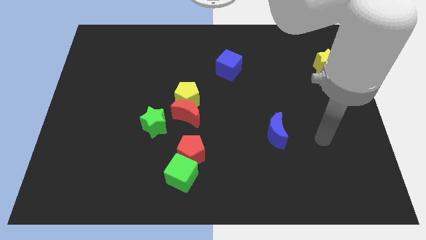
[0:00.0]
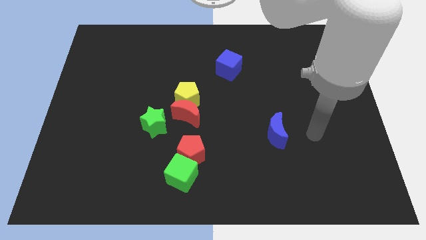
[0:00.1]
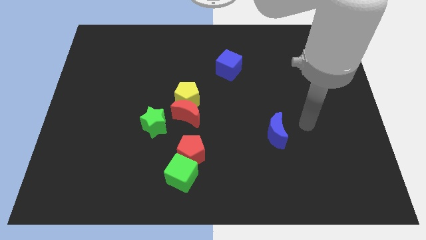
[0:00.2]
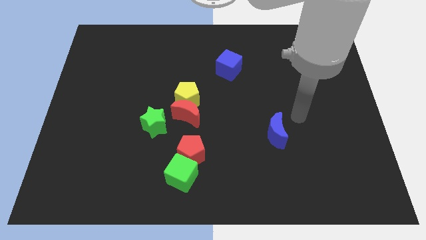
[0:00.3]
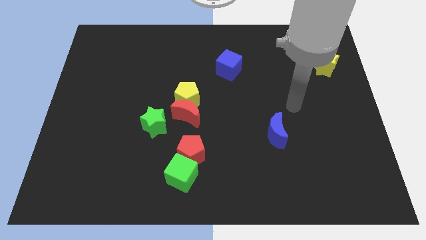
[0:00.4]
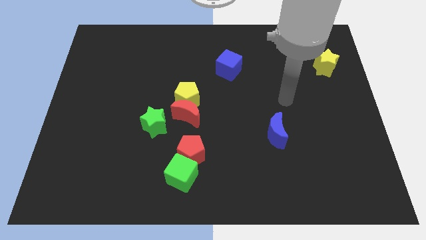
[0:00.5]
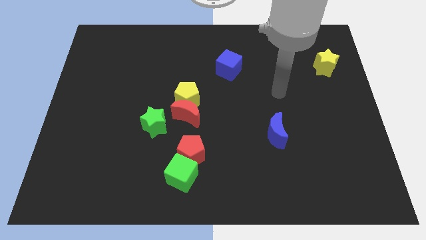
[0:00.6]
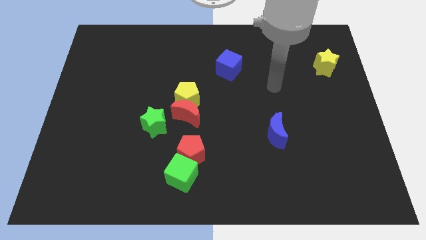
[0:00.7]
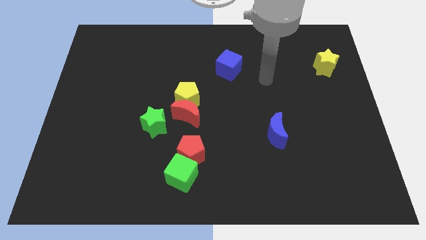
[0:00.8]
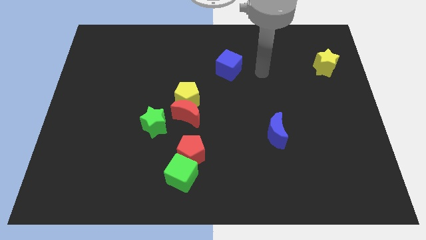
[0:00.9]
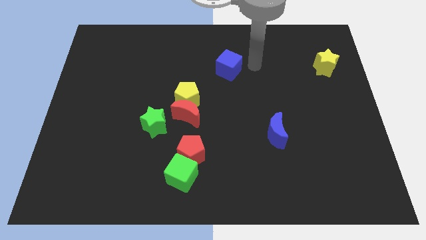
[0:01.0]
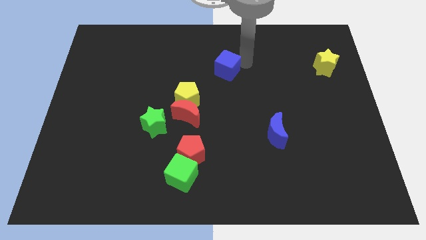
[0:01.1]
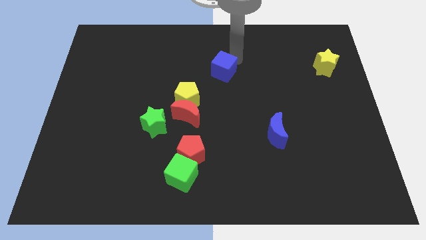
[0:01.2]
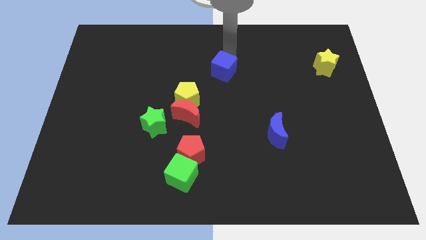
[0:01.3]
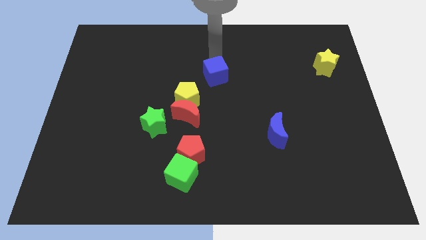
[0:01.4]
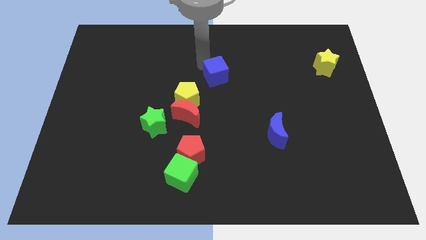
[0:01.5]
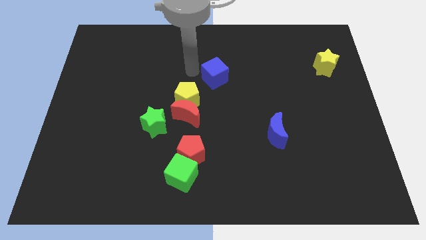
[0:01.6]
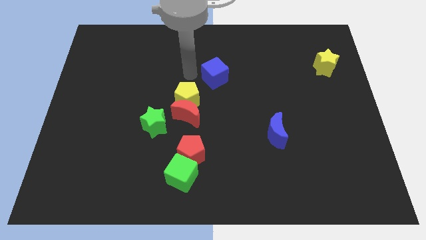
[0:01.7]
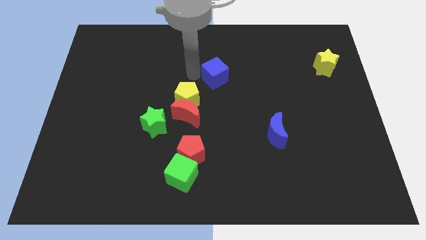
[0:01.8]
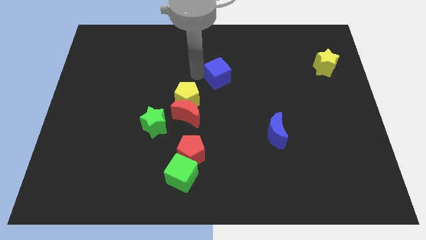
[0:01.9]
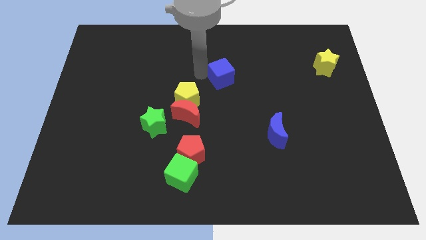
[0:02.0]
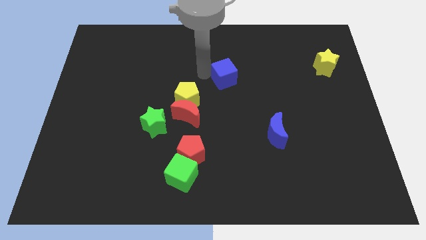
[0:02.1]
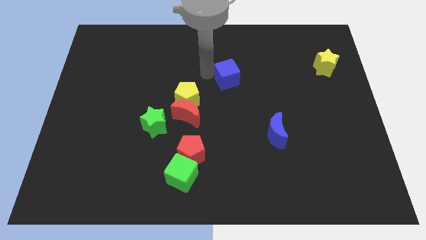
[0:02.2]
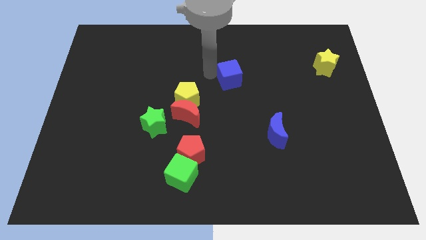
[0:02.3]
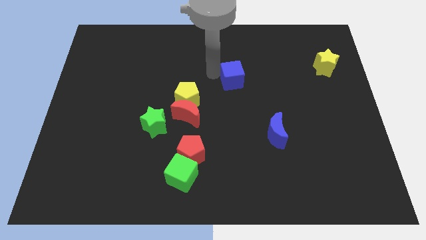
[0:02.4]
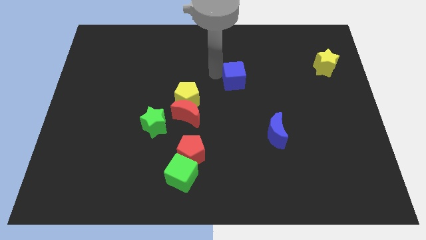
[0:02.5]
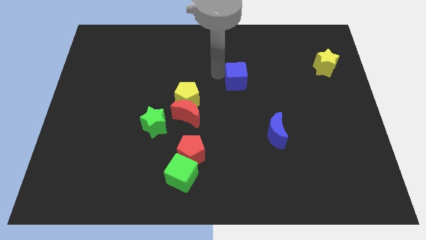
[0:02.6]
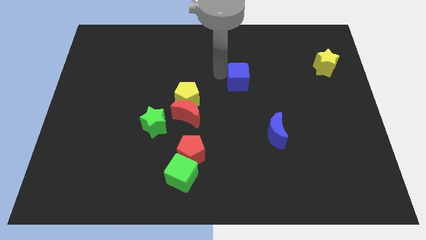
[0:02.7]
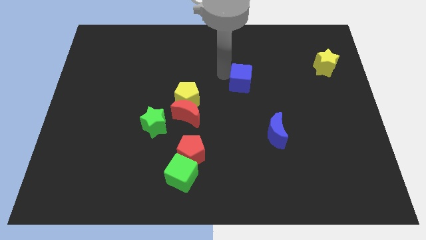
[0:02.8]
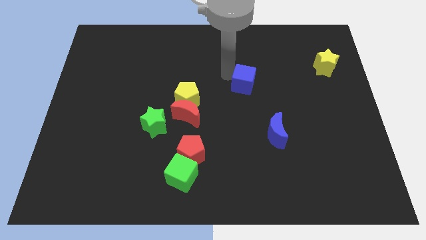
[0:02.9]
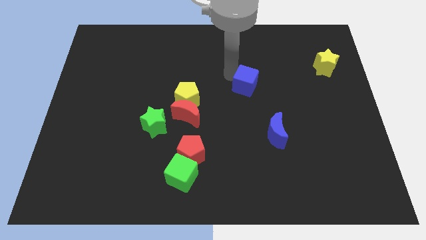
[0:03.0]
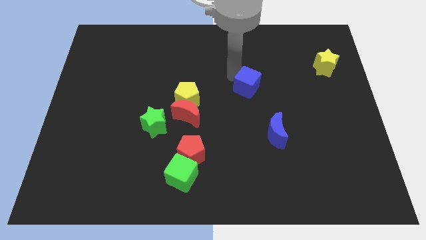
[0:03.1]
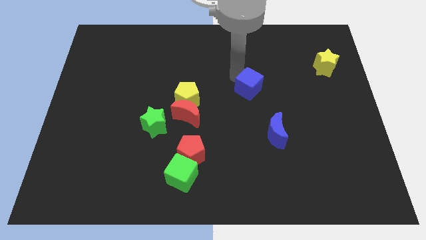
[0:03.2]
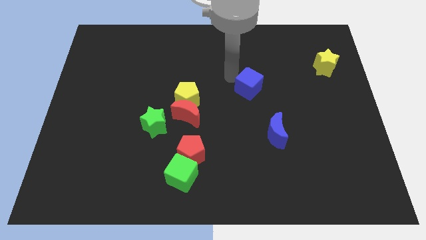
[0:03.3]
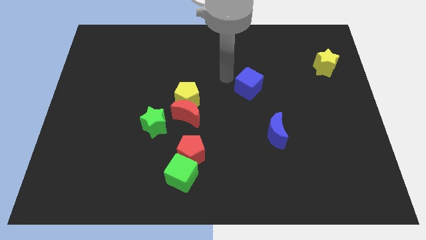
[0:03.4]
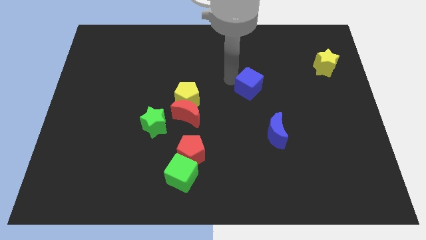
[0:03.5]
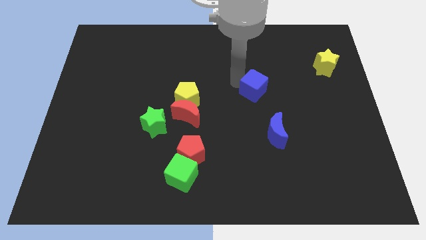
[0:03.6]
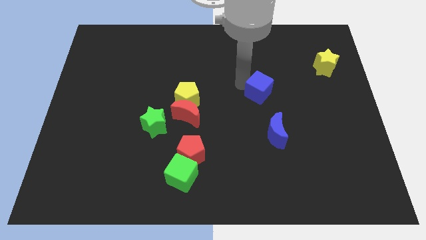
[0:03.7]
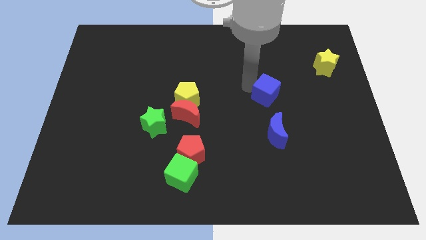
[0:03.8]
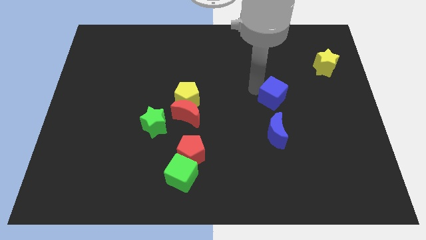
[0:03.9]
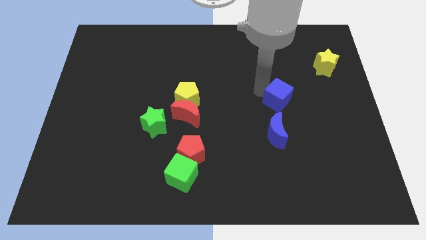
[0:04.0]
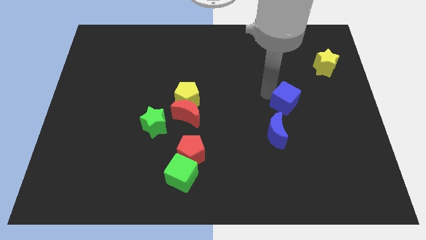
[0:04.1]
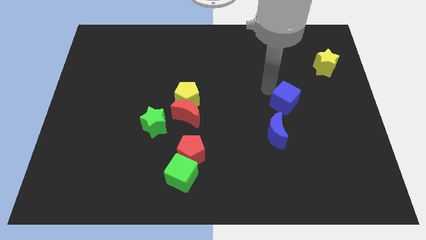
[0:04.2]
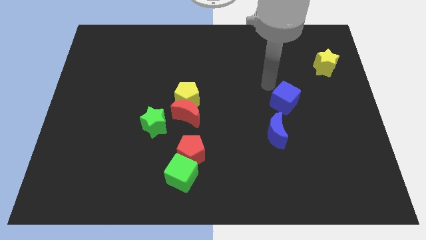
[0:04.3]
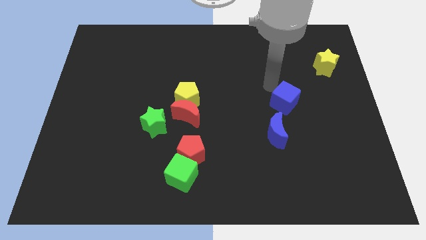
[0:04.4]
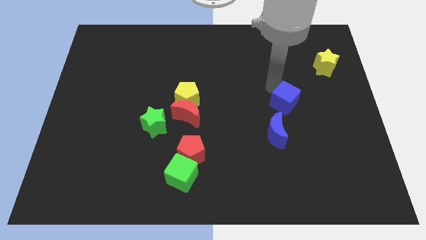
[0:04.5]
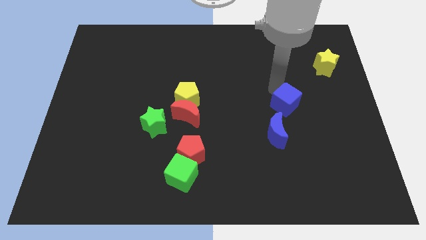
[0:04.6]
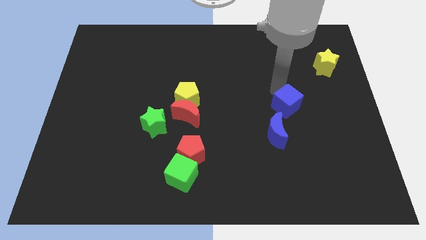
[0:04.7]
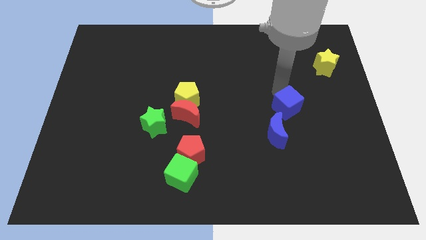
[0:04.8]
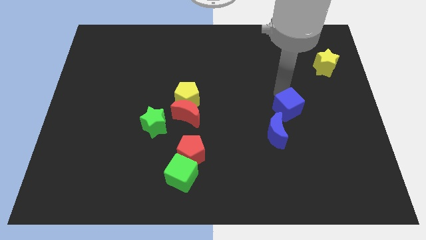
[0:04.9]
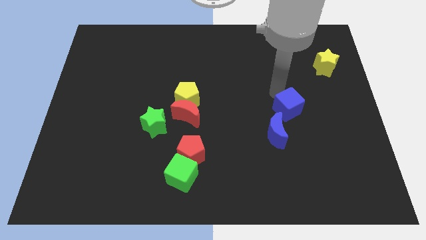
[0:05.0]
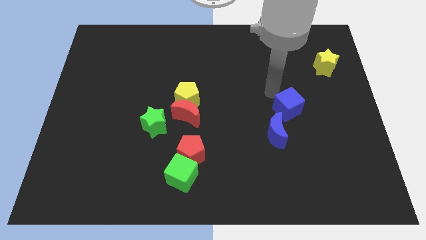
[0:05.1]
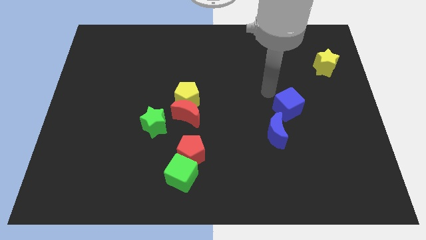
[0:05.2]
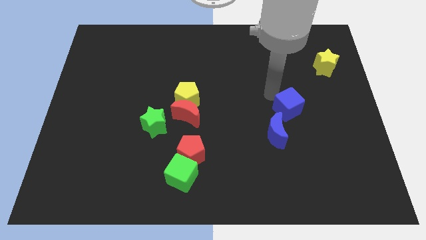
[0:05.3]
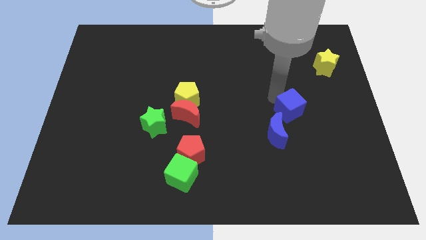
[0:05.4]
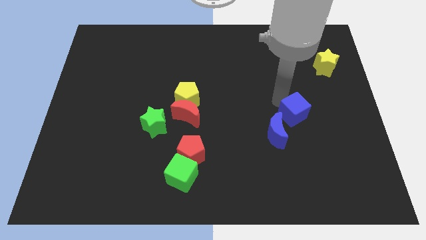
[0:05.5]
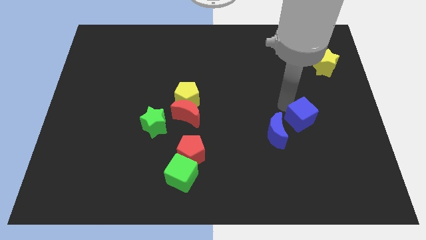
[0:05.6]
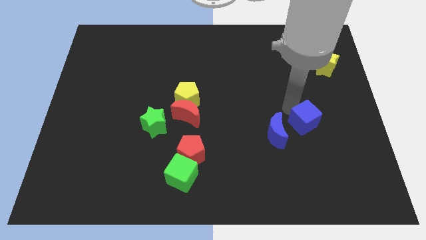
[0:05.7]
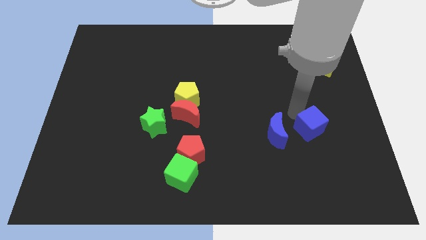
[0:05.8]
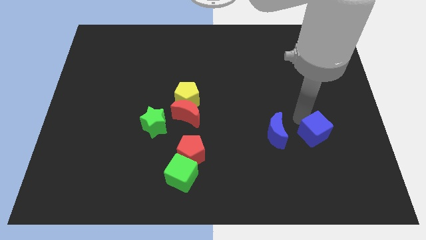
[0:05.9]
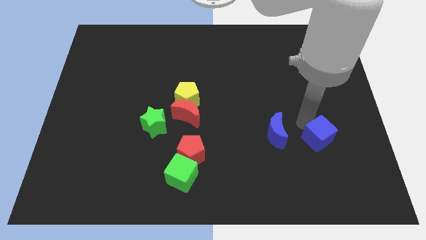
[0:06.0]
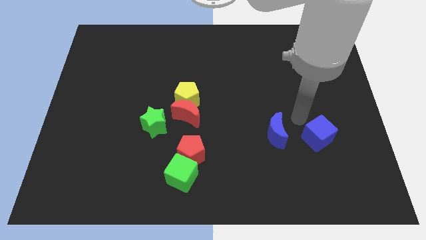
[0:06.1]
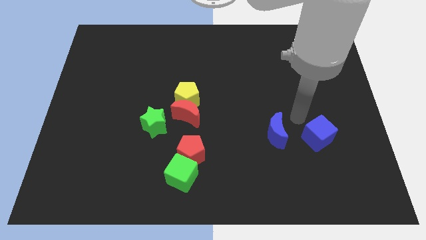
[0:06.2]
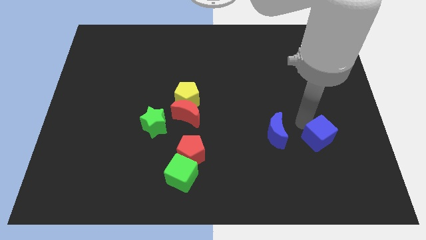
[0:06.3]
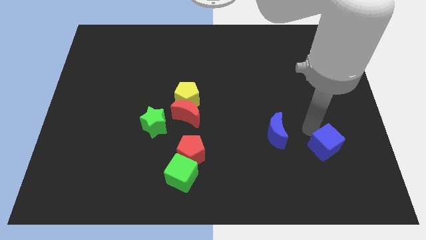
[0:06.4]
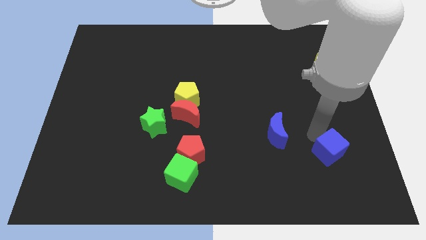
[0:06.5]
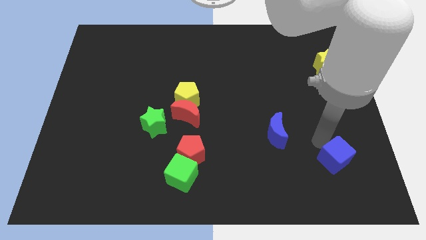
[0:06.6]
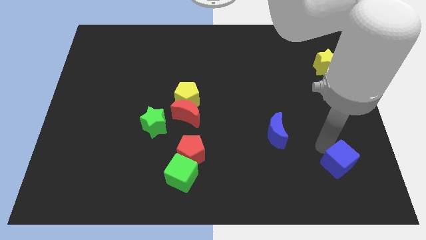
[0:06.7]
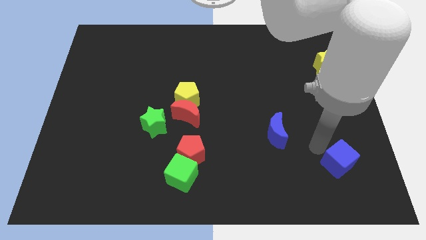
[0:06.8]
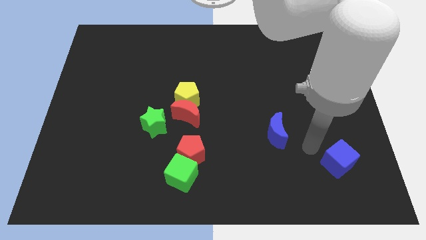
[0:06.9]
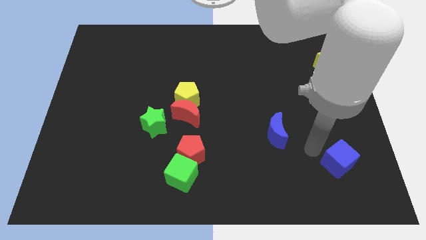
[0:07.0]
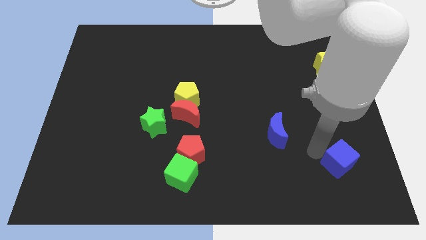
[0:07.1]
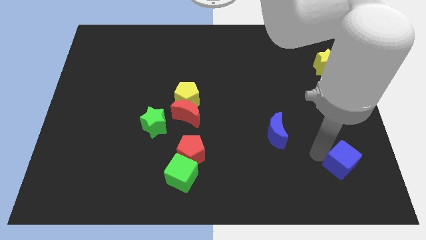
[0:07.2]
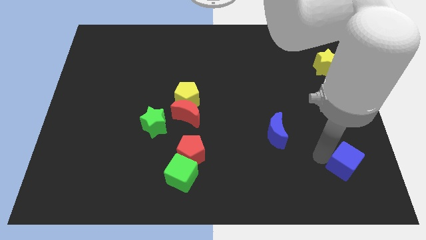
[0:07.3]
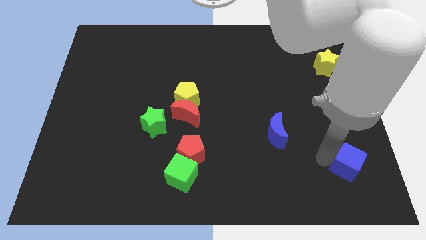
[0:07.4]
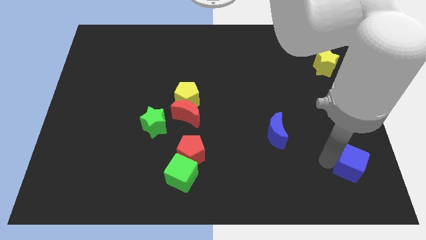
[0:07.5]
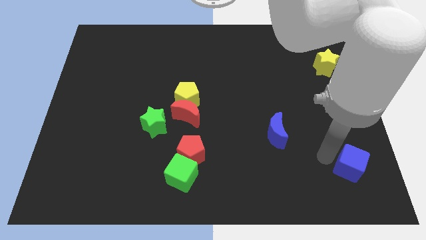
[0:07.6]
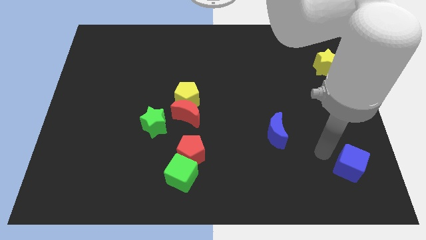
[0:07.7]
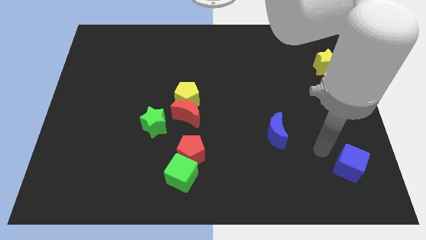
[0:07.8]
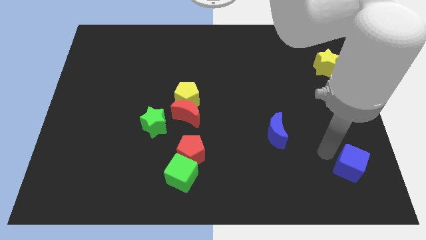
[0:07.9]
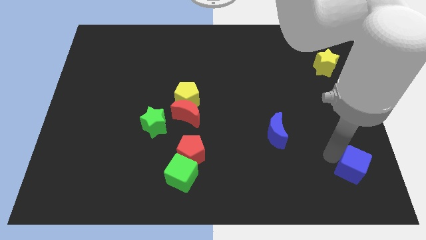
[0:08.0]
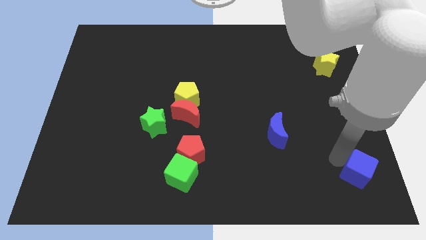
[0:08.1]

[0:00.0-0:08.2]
slide the blue cube to the bottom right corner
